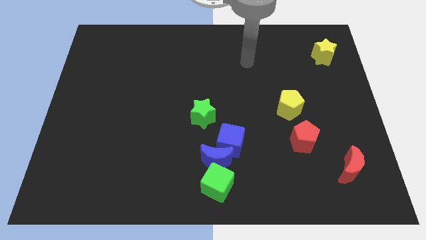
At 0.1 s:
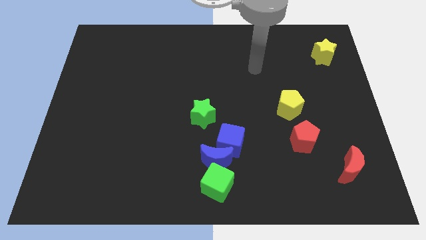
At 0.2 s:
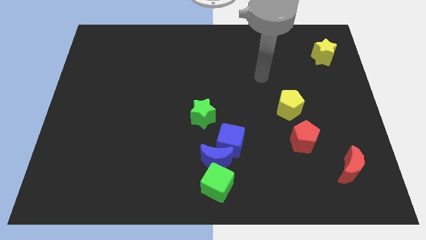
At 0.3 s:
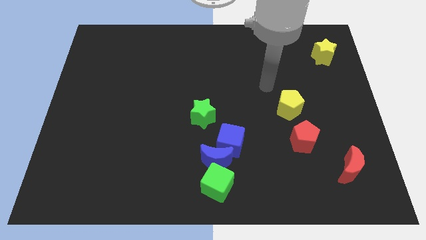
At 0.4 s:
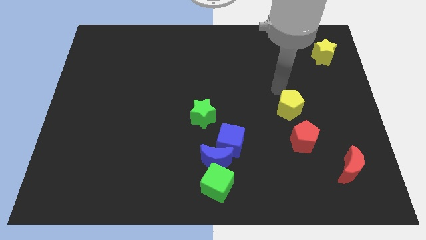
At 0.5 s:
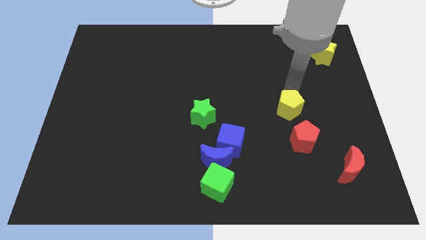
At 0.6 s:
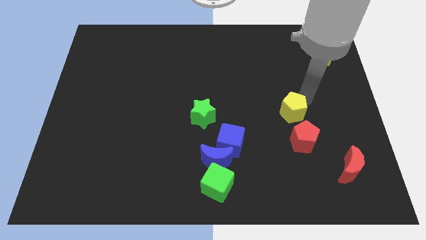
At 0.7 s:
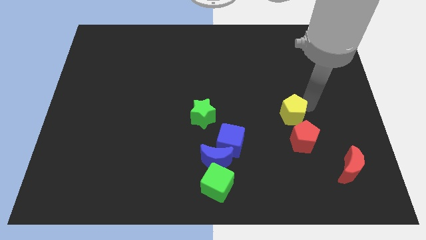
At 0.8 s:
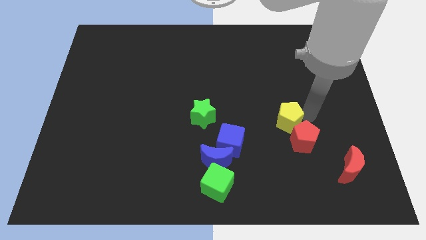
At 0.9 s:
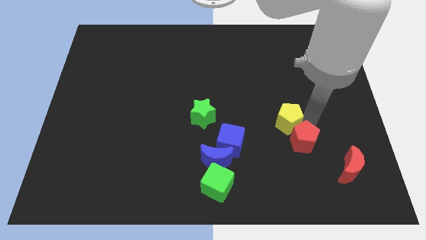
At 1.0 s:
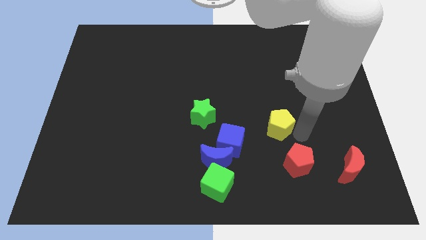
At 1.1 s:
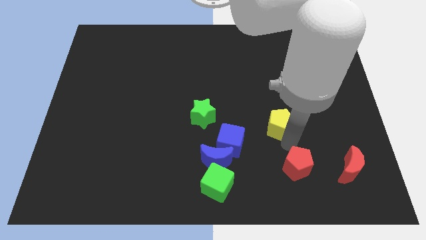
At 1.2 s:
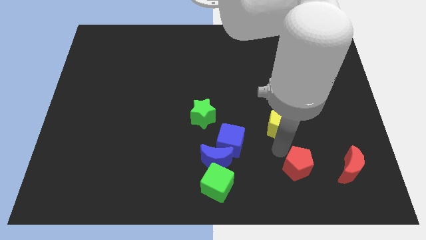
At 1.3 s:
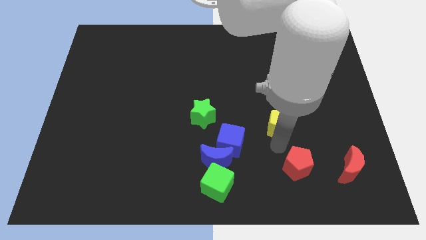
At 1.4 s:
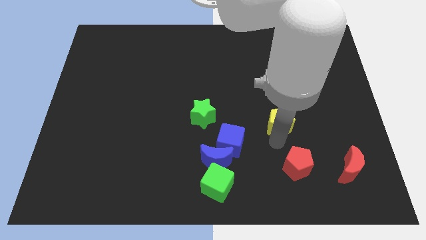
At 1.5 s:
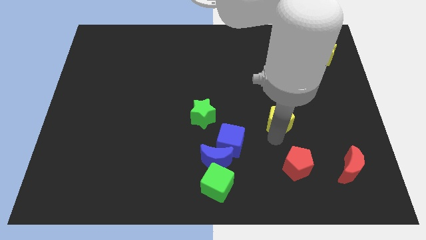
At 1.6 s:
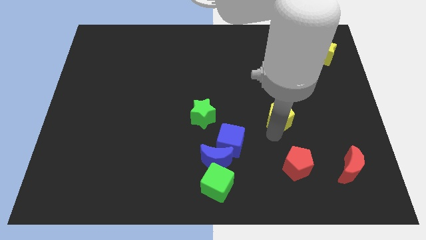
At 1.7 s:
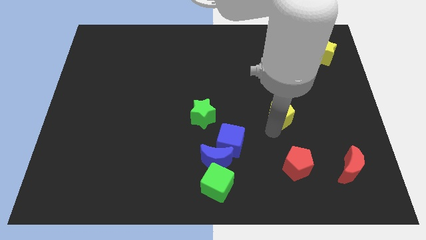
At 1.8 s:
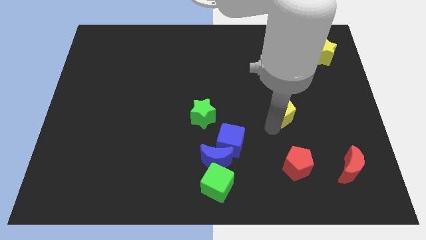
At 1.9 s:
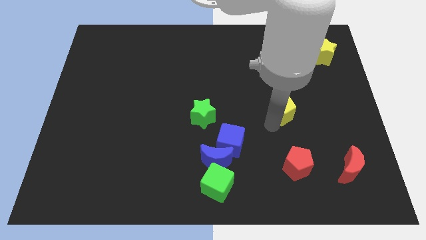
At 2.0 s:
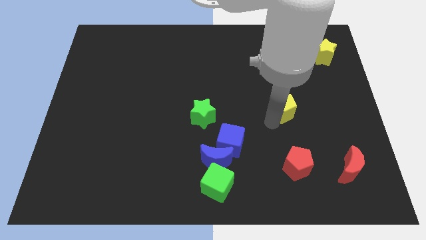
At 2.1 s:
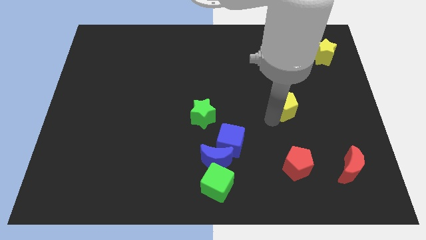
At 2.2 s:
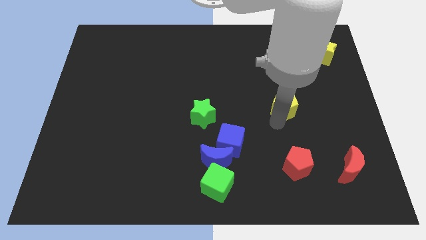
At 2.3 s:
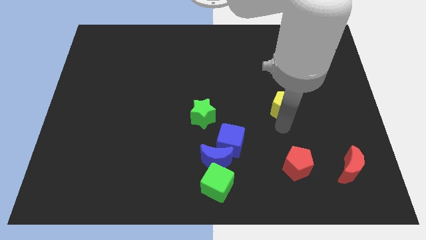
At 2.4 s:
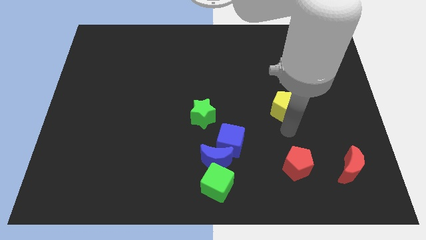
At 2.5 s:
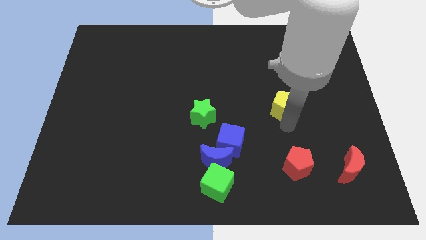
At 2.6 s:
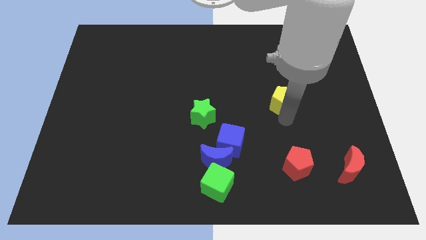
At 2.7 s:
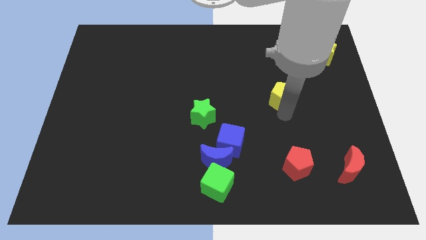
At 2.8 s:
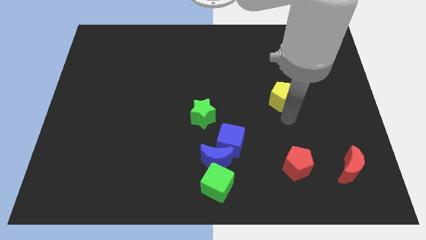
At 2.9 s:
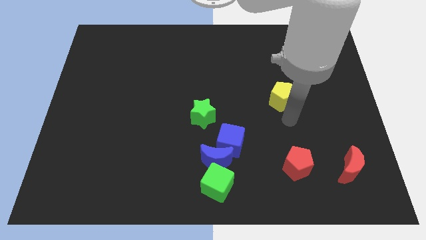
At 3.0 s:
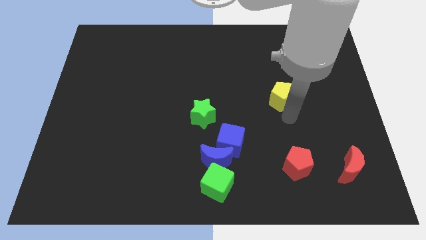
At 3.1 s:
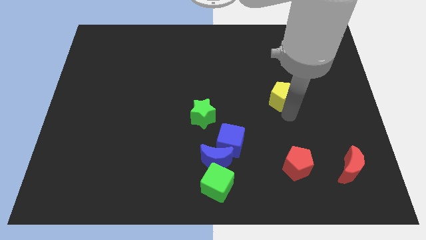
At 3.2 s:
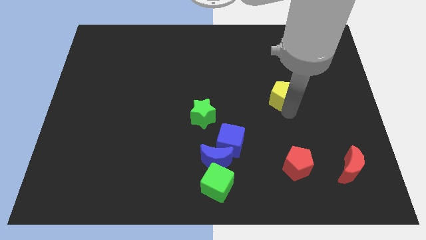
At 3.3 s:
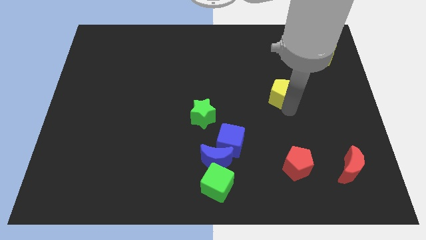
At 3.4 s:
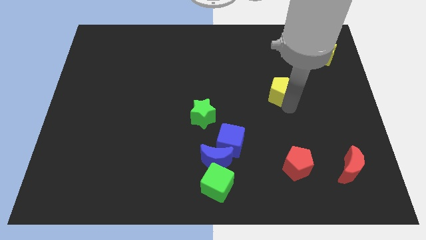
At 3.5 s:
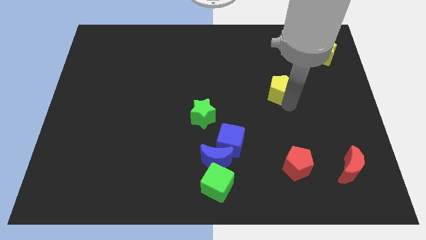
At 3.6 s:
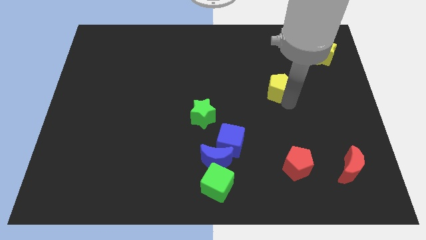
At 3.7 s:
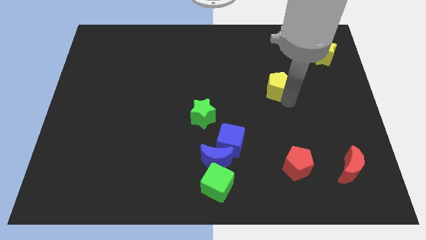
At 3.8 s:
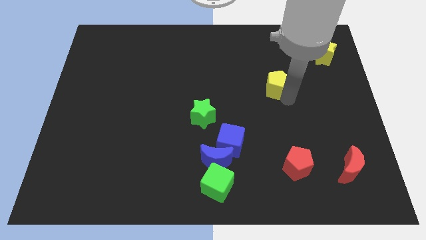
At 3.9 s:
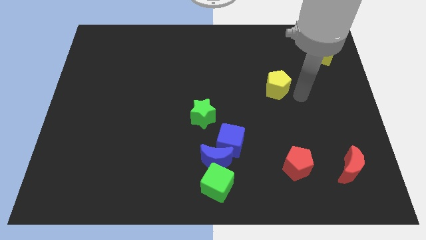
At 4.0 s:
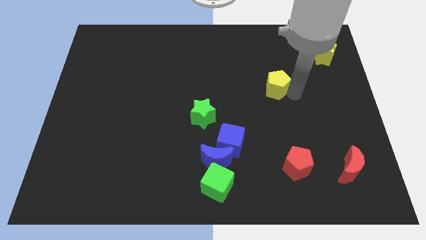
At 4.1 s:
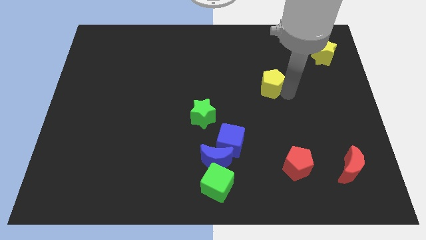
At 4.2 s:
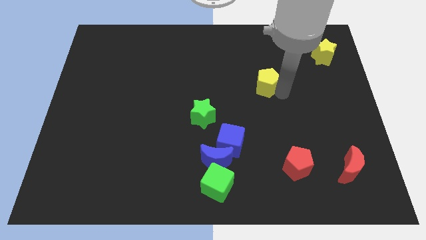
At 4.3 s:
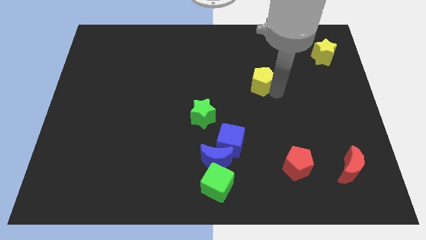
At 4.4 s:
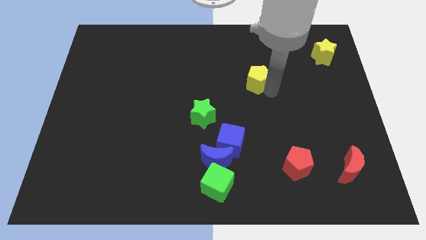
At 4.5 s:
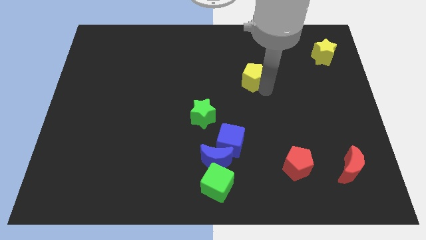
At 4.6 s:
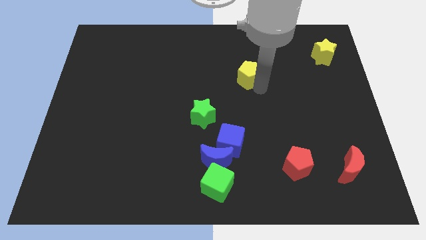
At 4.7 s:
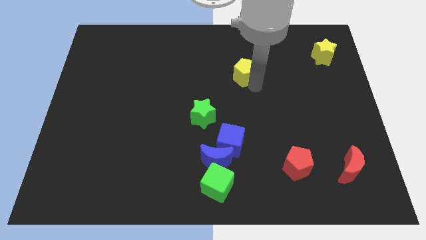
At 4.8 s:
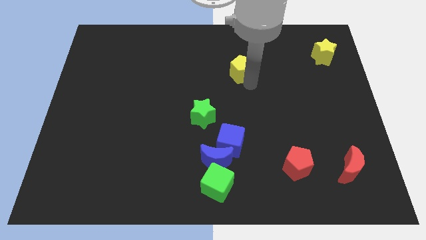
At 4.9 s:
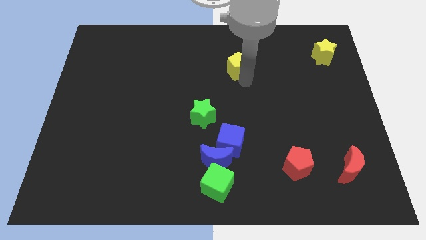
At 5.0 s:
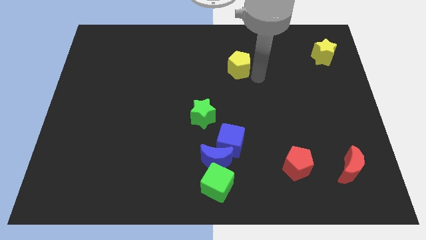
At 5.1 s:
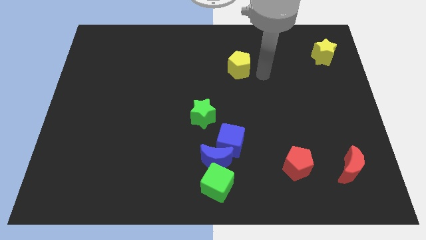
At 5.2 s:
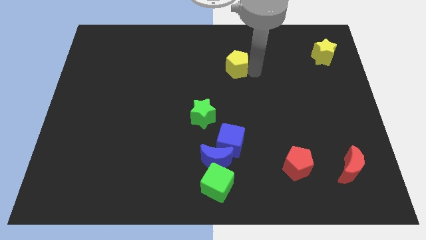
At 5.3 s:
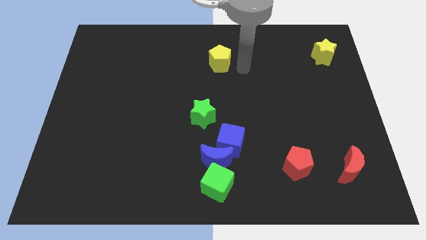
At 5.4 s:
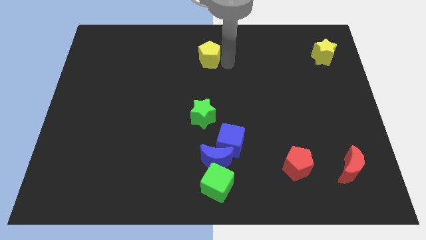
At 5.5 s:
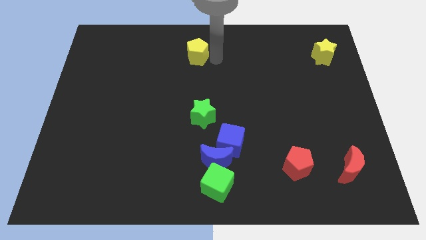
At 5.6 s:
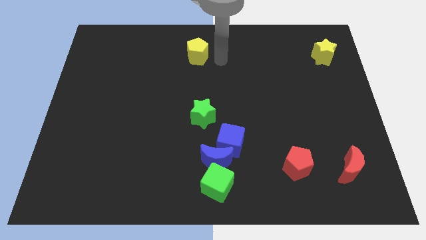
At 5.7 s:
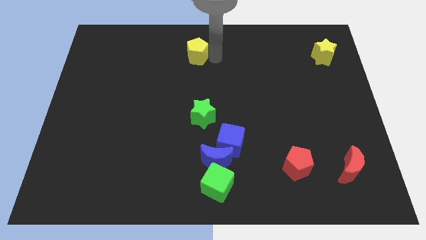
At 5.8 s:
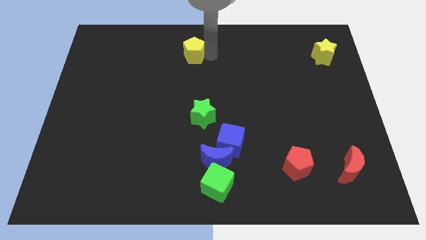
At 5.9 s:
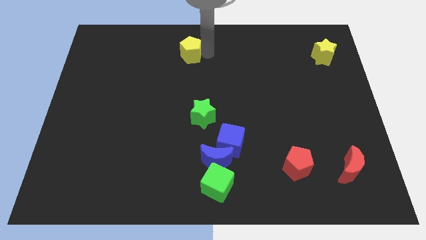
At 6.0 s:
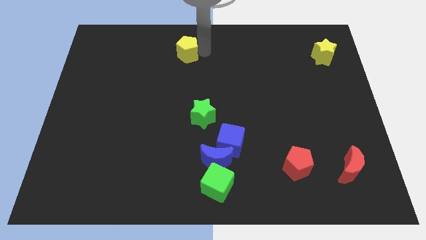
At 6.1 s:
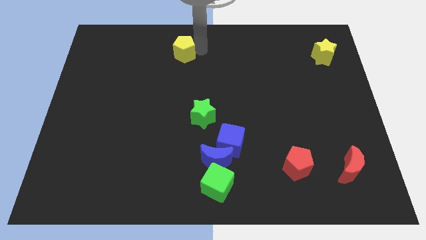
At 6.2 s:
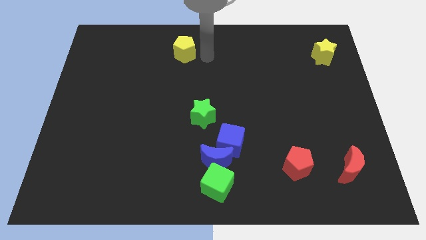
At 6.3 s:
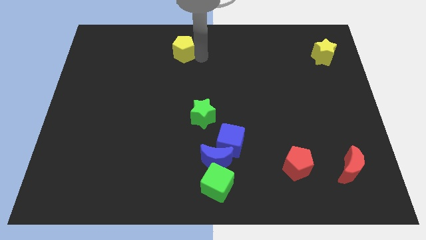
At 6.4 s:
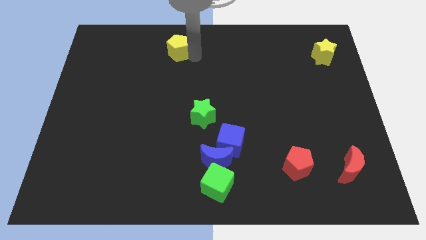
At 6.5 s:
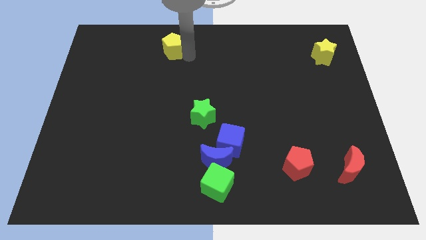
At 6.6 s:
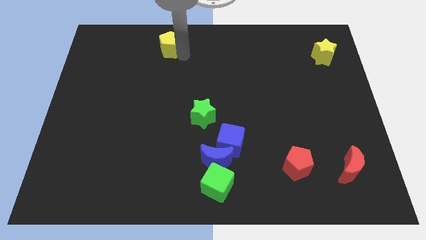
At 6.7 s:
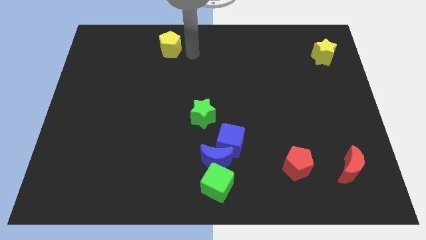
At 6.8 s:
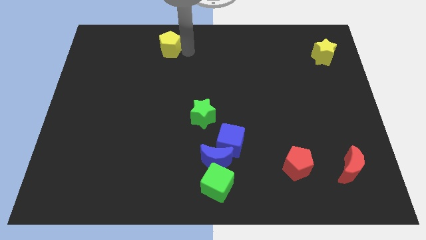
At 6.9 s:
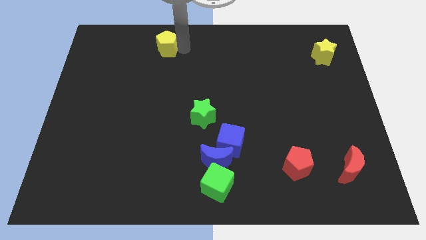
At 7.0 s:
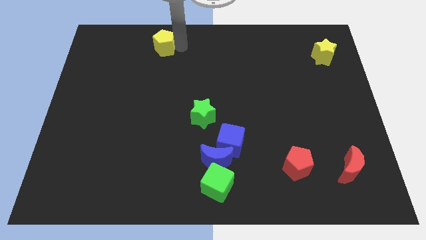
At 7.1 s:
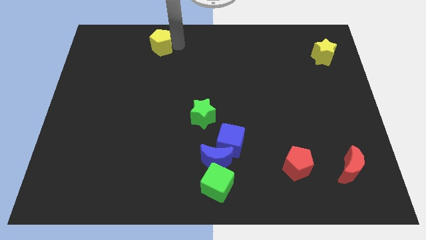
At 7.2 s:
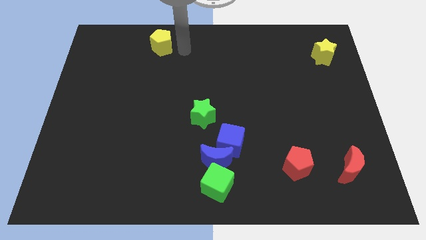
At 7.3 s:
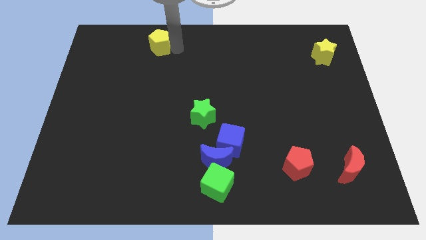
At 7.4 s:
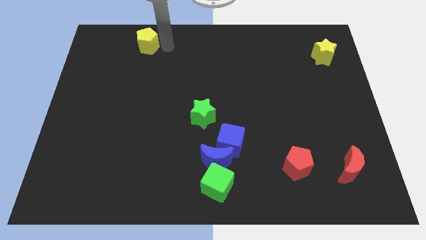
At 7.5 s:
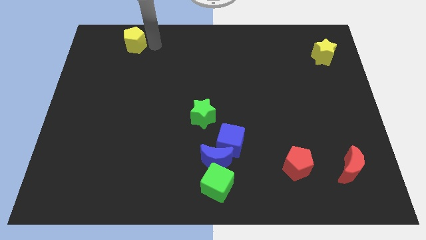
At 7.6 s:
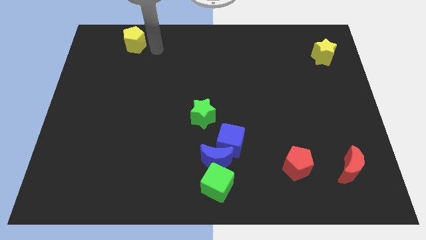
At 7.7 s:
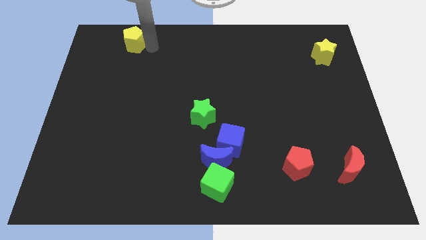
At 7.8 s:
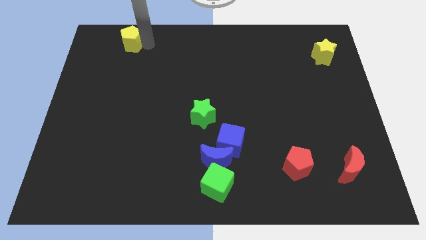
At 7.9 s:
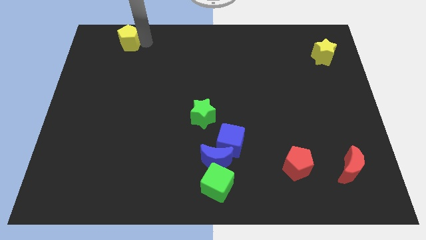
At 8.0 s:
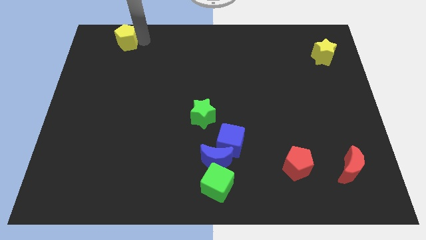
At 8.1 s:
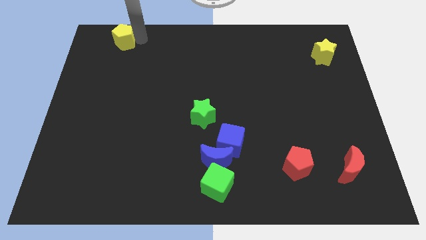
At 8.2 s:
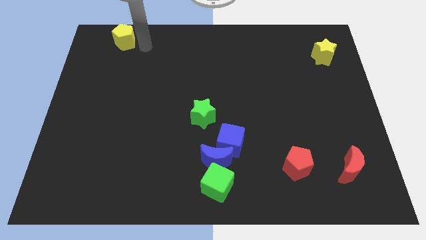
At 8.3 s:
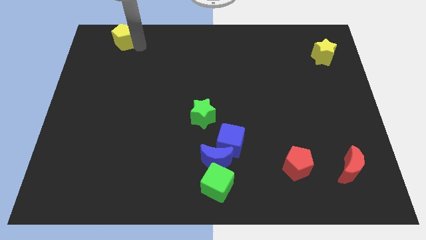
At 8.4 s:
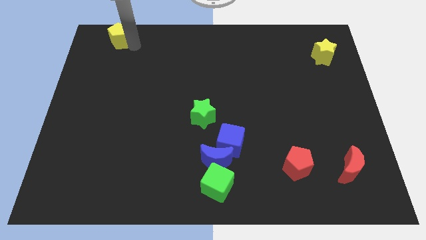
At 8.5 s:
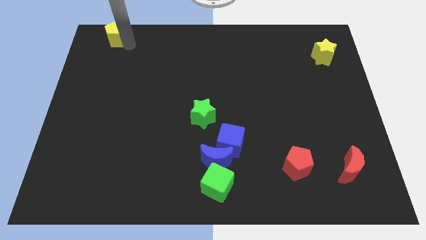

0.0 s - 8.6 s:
move the yellow pentagon to the upper left corner
